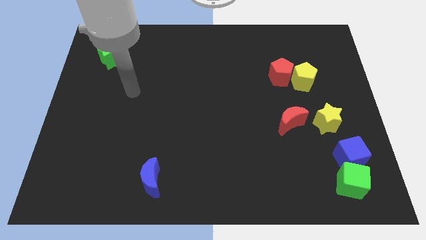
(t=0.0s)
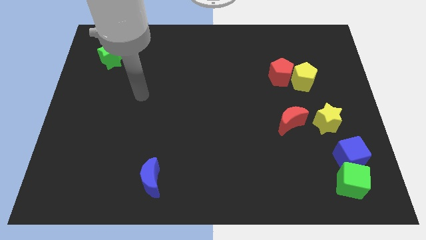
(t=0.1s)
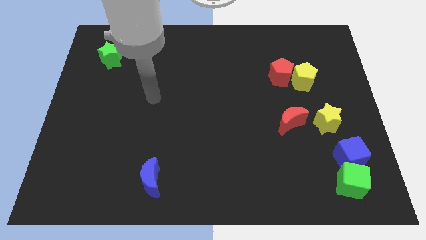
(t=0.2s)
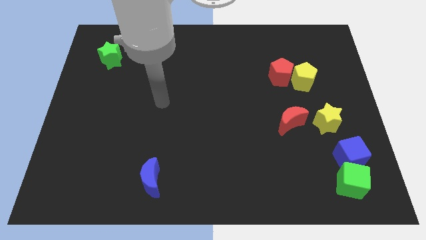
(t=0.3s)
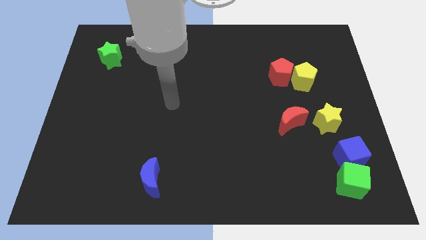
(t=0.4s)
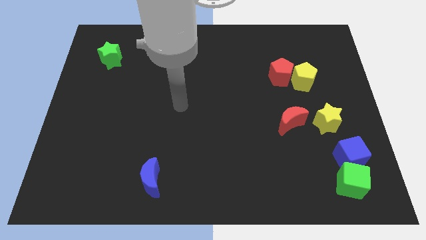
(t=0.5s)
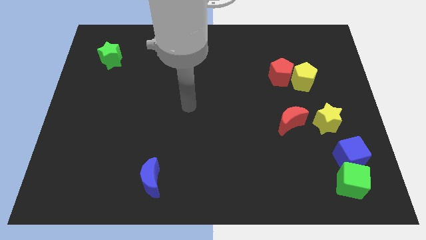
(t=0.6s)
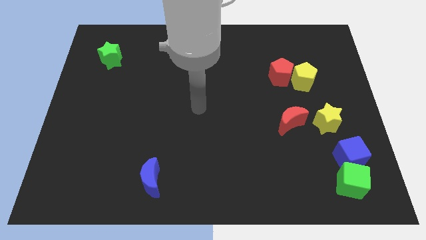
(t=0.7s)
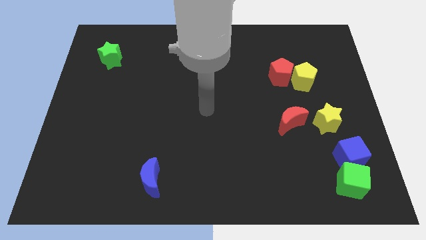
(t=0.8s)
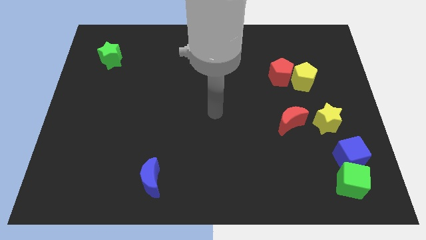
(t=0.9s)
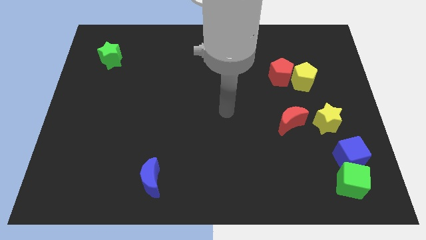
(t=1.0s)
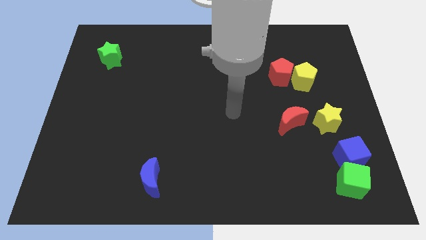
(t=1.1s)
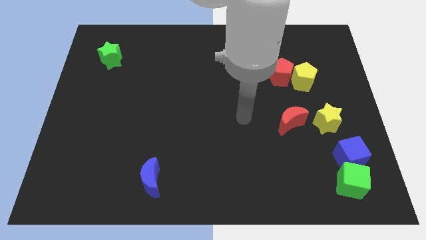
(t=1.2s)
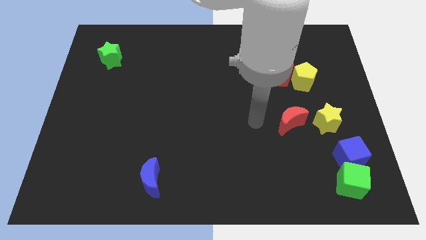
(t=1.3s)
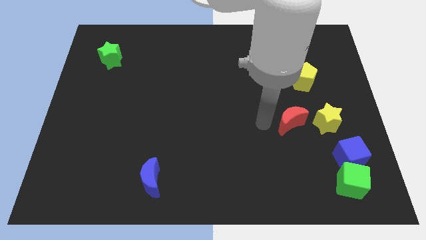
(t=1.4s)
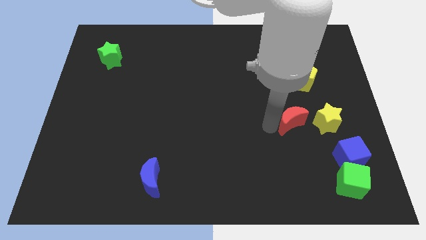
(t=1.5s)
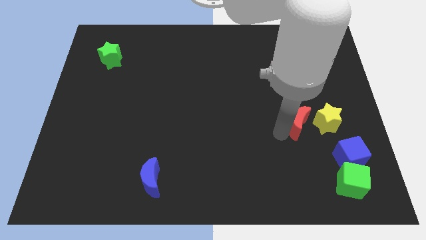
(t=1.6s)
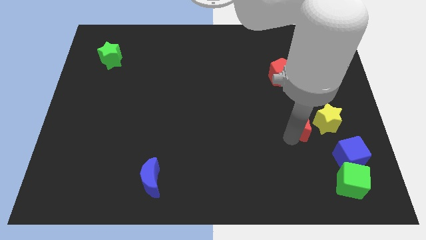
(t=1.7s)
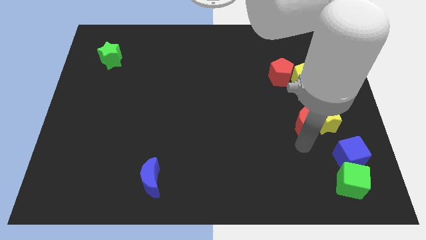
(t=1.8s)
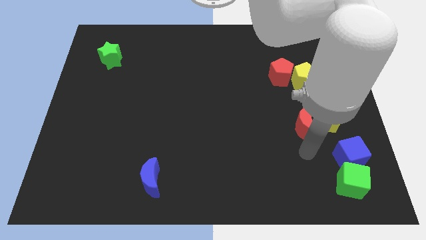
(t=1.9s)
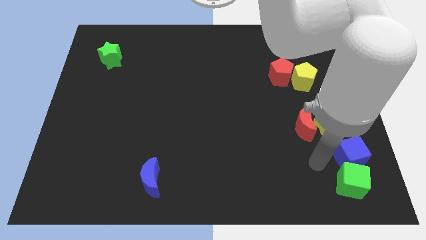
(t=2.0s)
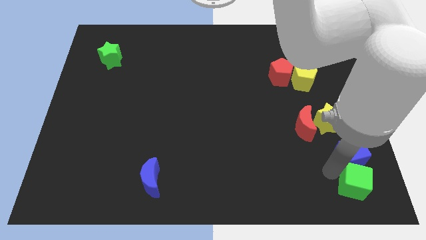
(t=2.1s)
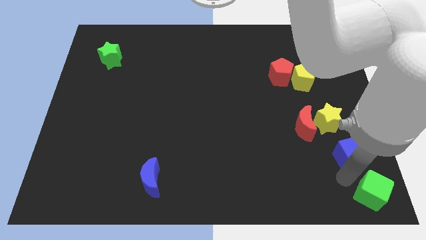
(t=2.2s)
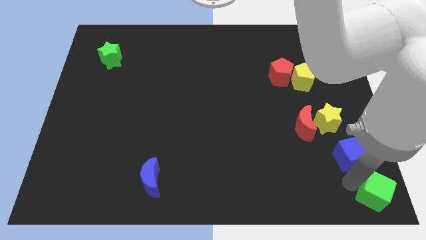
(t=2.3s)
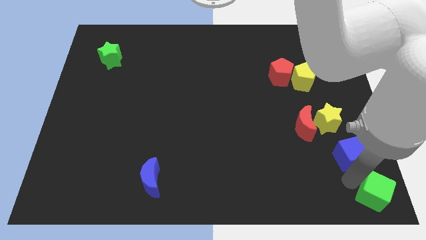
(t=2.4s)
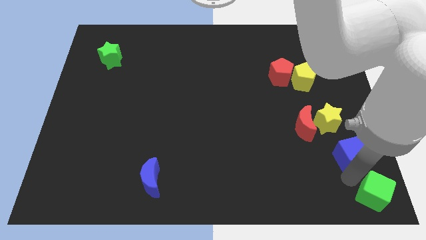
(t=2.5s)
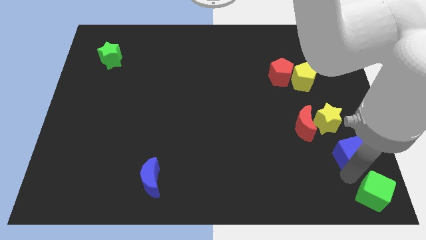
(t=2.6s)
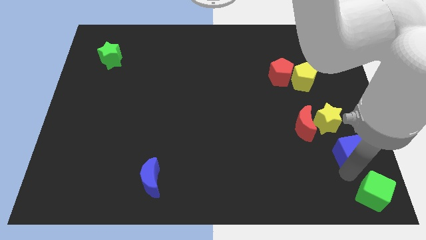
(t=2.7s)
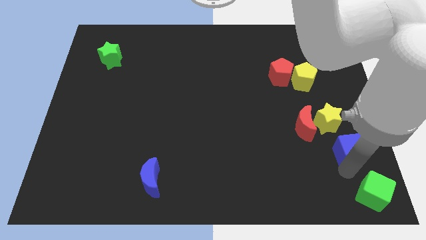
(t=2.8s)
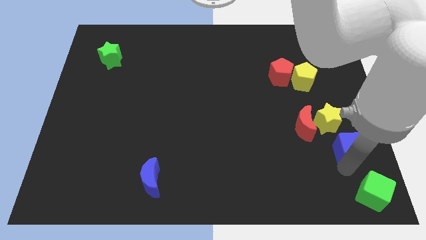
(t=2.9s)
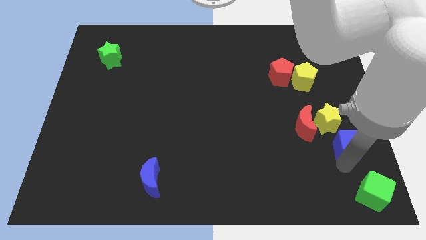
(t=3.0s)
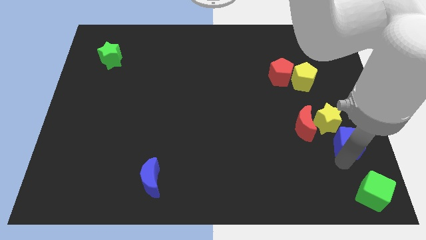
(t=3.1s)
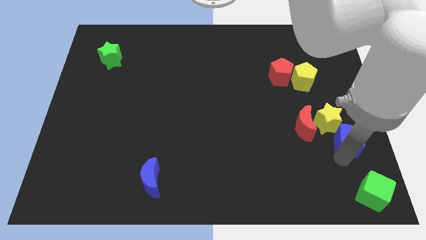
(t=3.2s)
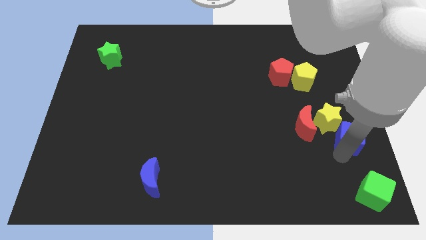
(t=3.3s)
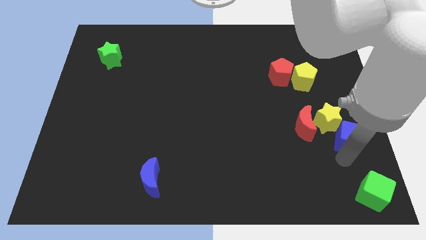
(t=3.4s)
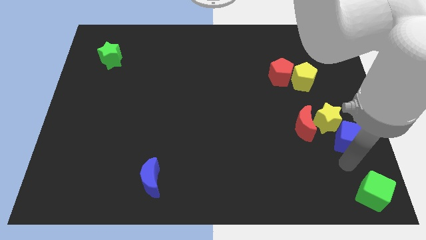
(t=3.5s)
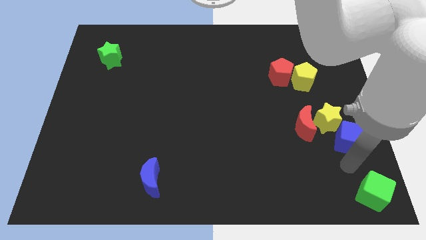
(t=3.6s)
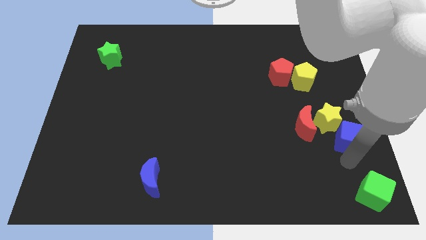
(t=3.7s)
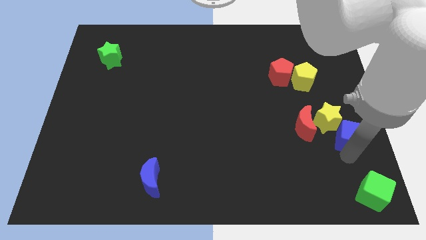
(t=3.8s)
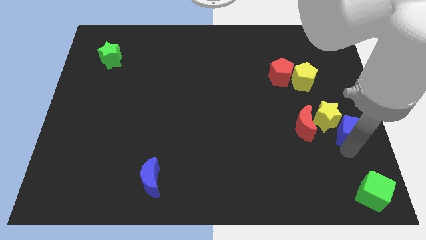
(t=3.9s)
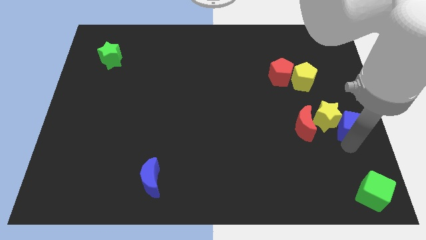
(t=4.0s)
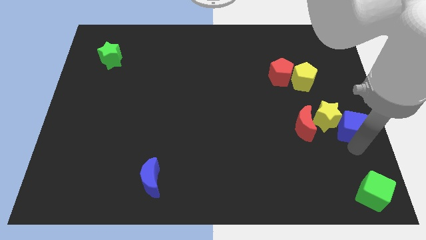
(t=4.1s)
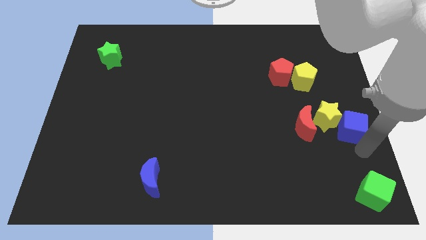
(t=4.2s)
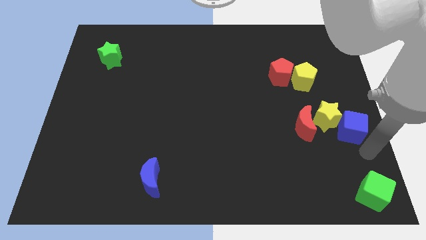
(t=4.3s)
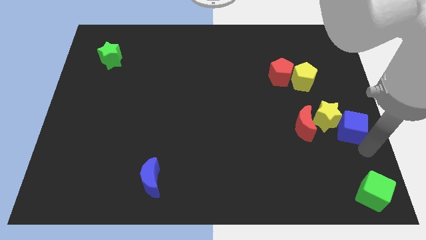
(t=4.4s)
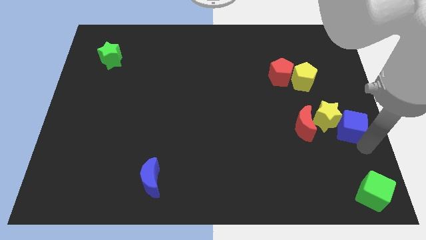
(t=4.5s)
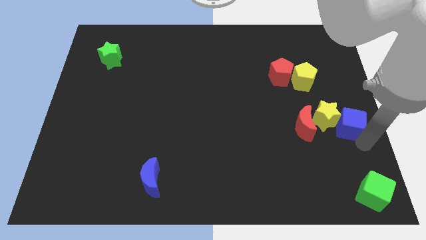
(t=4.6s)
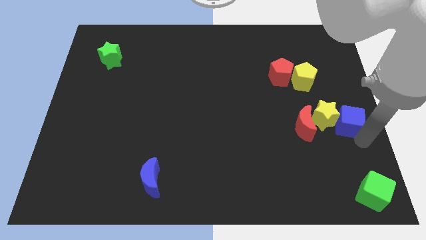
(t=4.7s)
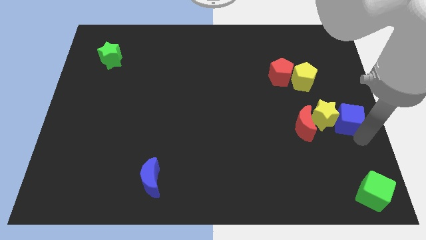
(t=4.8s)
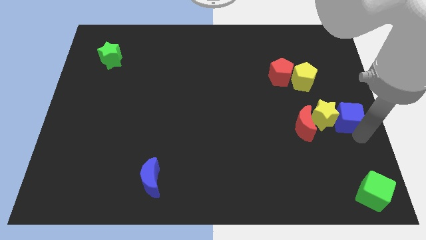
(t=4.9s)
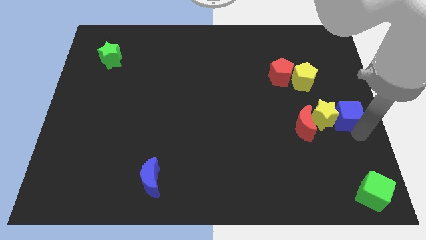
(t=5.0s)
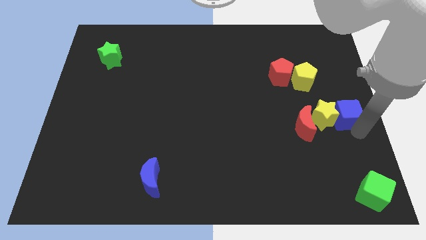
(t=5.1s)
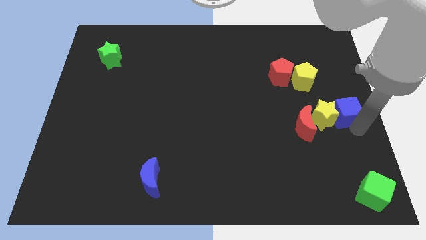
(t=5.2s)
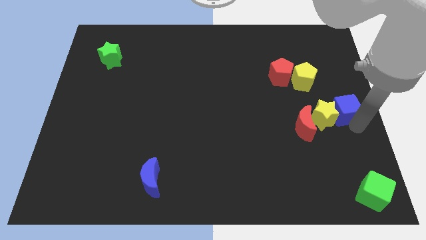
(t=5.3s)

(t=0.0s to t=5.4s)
push the blue cube to the bottom right side of the yellow pentagon

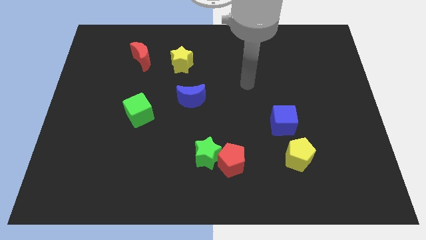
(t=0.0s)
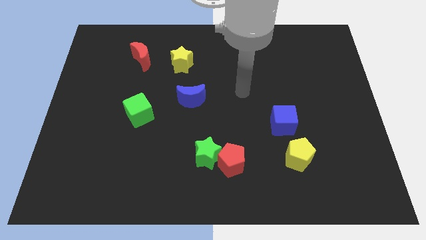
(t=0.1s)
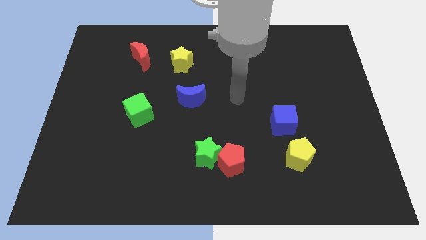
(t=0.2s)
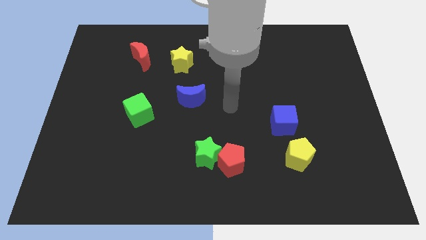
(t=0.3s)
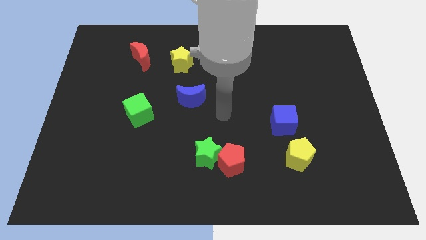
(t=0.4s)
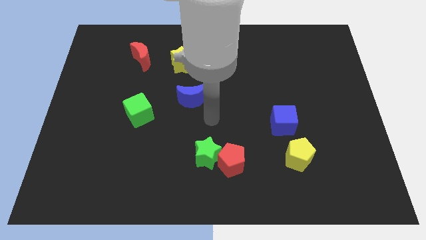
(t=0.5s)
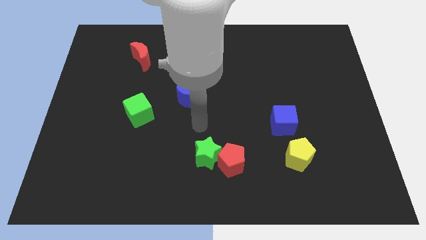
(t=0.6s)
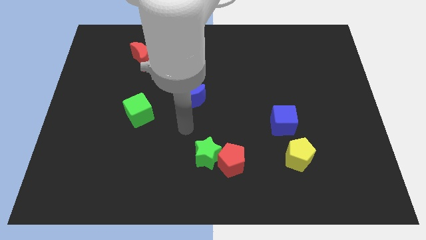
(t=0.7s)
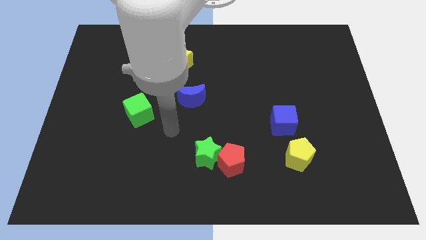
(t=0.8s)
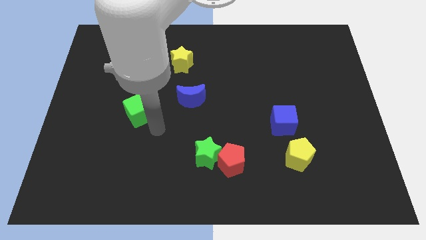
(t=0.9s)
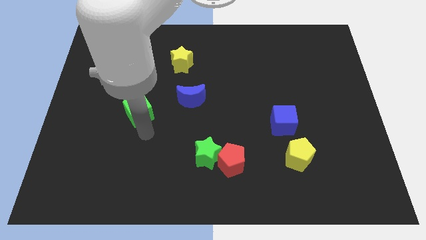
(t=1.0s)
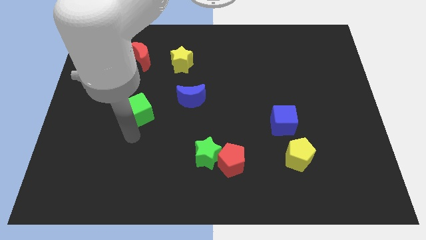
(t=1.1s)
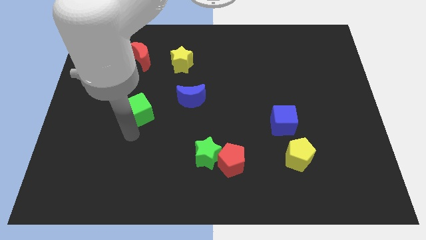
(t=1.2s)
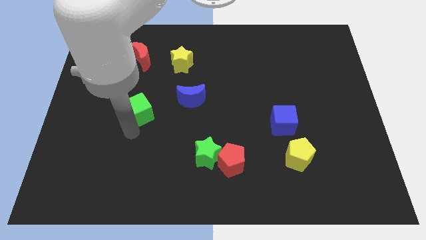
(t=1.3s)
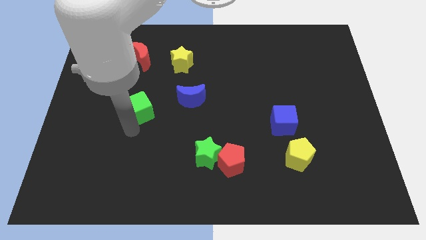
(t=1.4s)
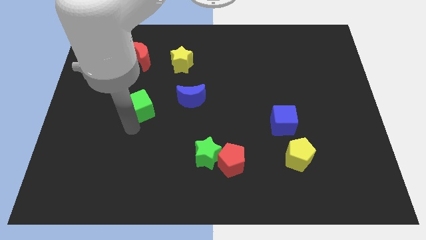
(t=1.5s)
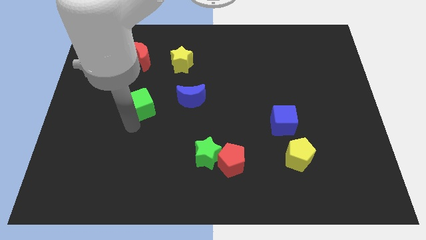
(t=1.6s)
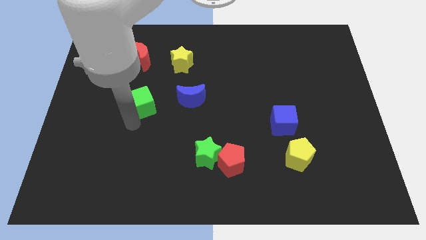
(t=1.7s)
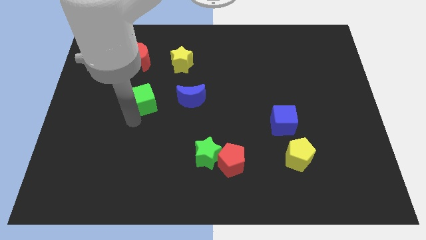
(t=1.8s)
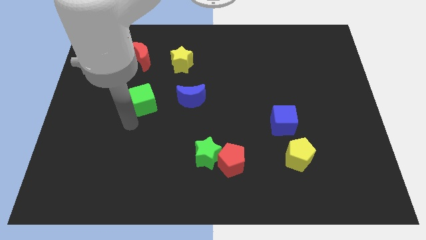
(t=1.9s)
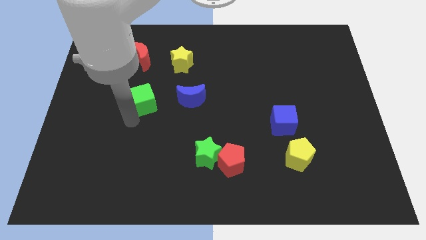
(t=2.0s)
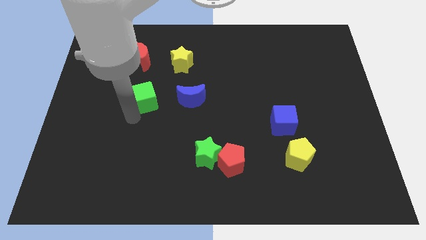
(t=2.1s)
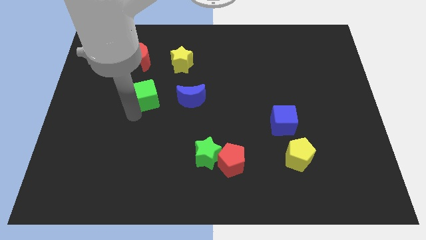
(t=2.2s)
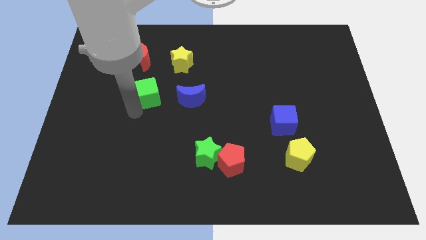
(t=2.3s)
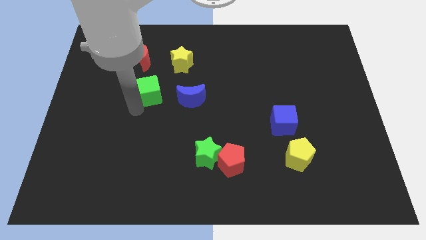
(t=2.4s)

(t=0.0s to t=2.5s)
put the green cube diagonally down and to the left of the yellow star
